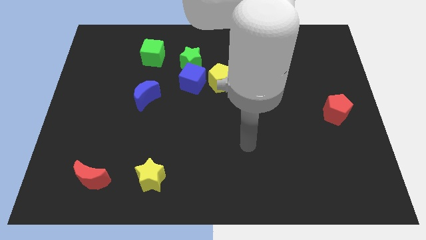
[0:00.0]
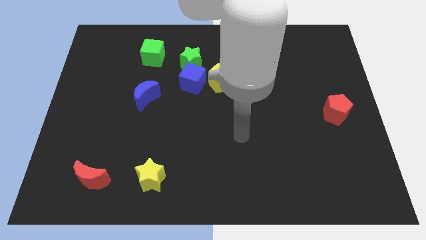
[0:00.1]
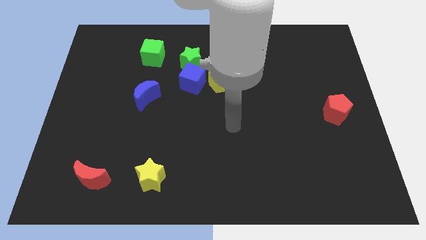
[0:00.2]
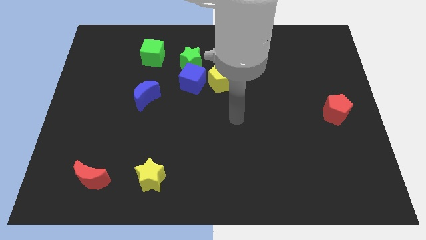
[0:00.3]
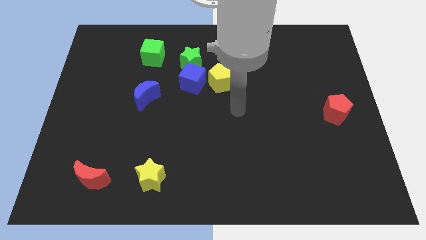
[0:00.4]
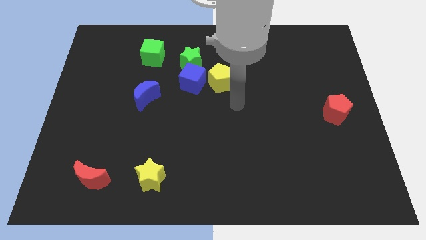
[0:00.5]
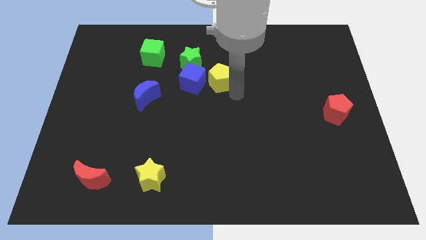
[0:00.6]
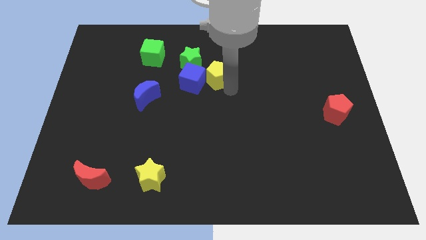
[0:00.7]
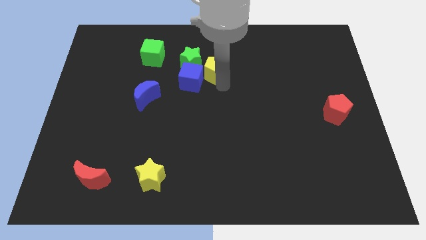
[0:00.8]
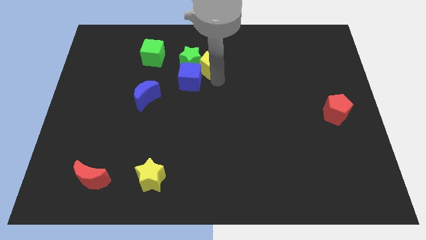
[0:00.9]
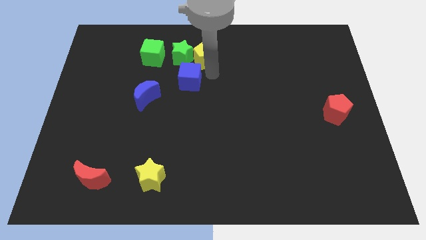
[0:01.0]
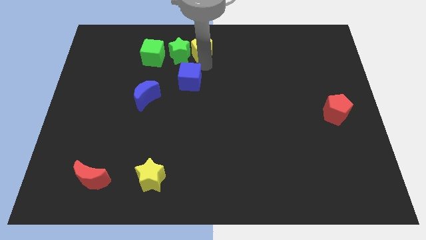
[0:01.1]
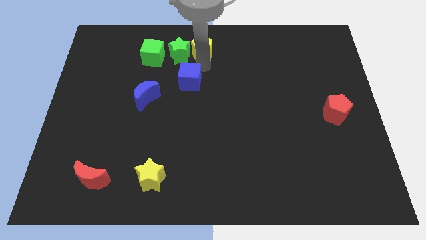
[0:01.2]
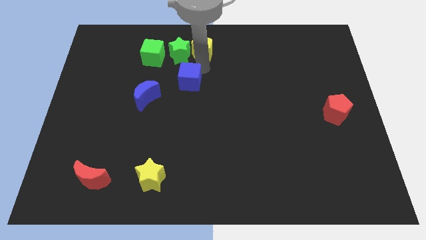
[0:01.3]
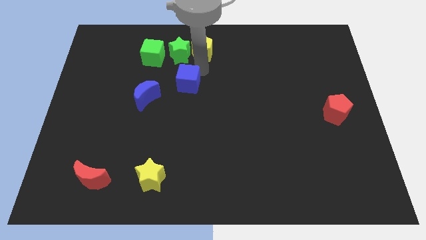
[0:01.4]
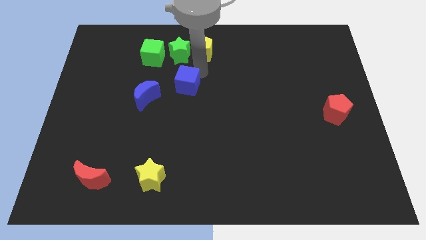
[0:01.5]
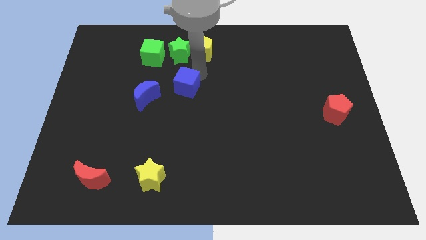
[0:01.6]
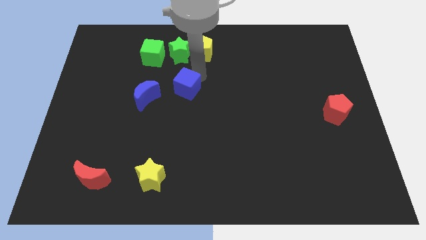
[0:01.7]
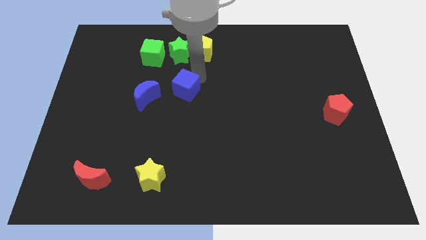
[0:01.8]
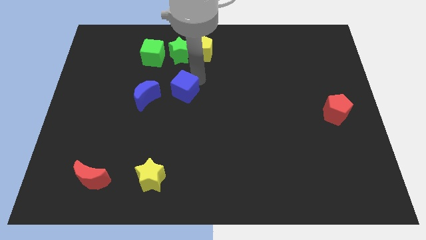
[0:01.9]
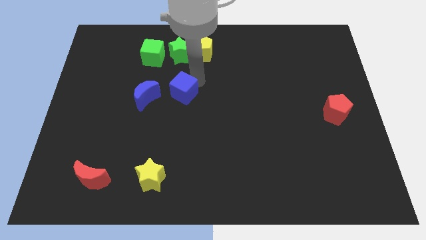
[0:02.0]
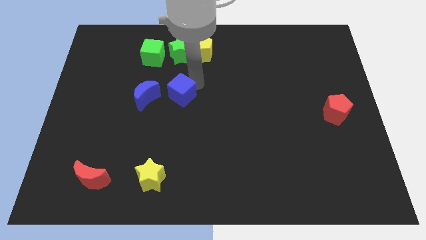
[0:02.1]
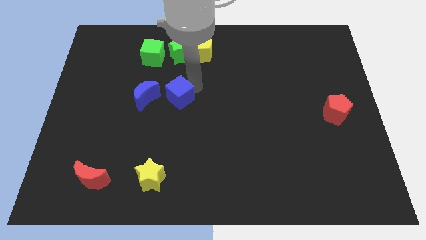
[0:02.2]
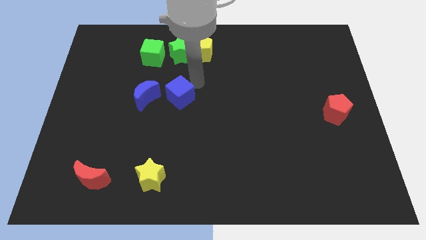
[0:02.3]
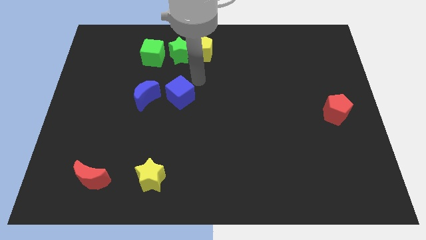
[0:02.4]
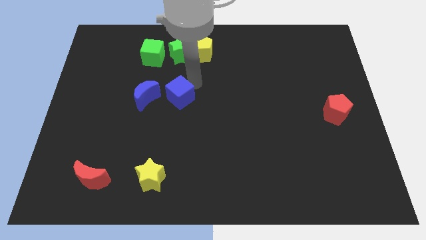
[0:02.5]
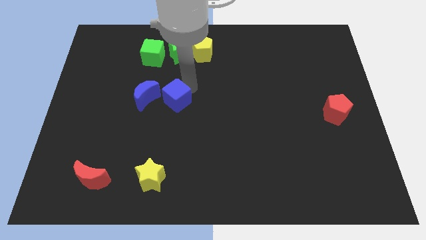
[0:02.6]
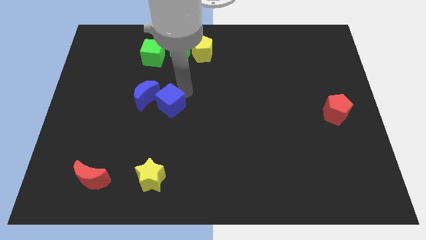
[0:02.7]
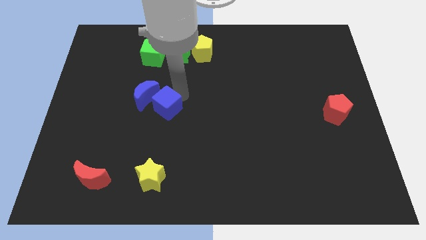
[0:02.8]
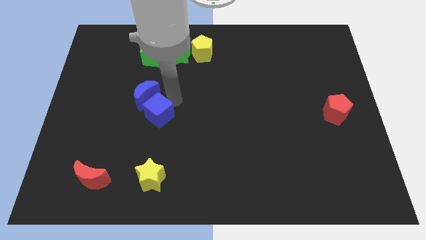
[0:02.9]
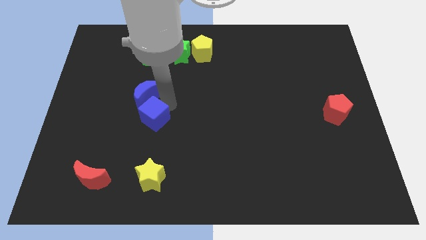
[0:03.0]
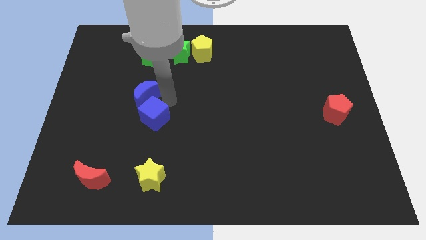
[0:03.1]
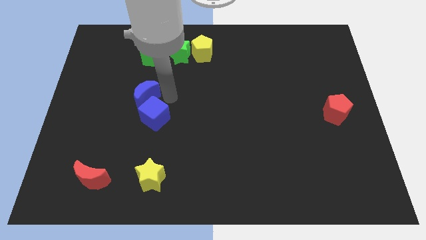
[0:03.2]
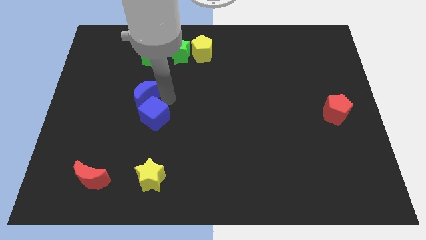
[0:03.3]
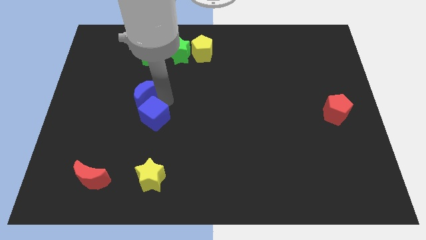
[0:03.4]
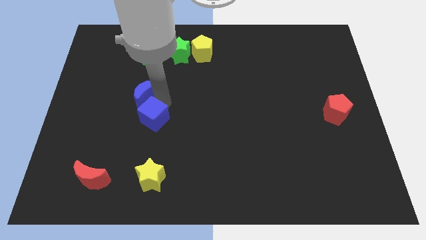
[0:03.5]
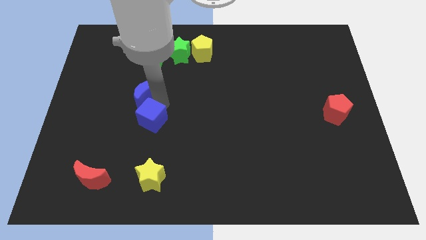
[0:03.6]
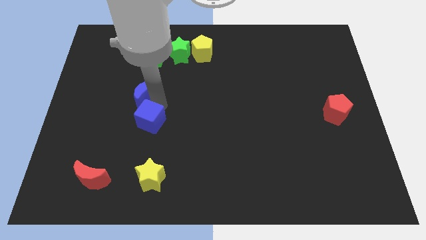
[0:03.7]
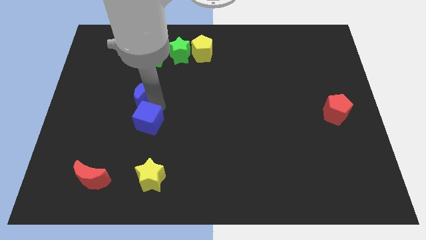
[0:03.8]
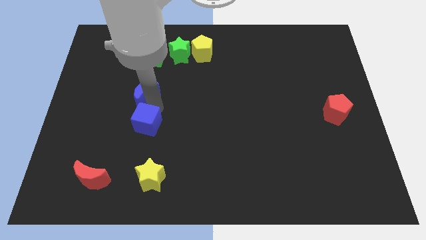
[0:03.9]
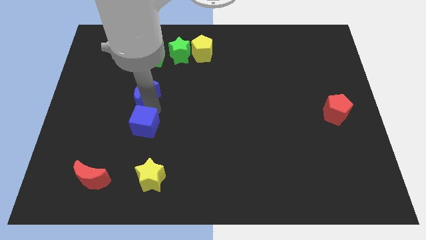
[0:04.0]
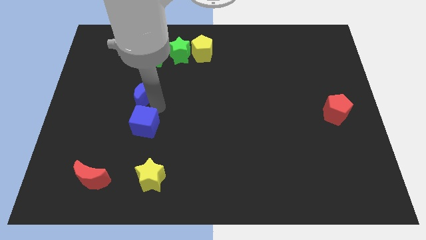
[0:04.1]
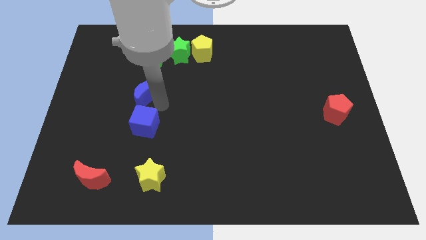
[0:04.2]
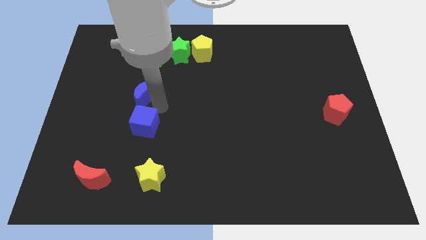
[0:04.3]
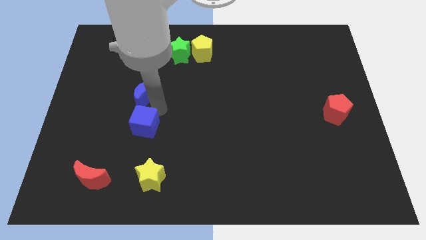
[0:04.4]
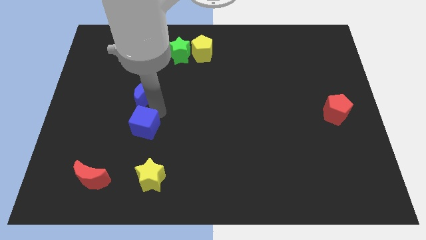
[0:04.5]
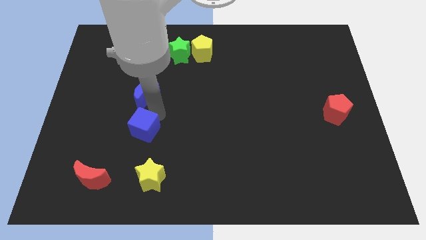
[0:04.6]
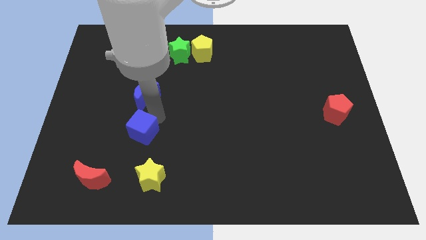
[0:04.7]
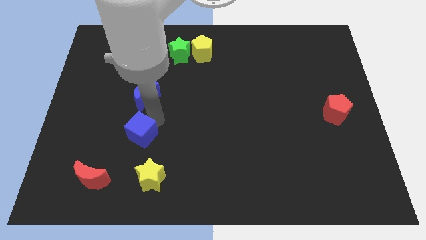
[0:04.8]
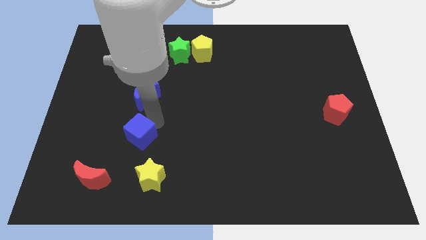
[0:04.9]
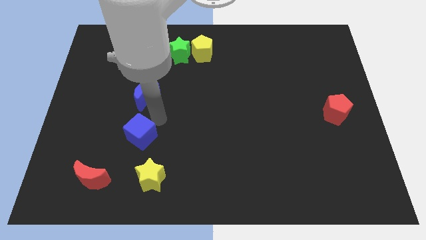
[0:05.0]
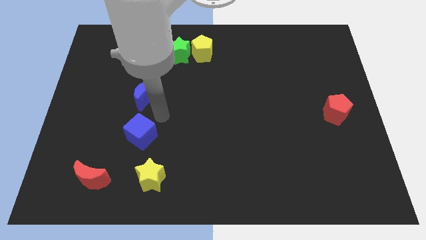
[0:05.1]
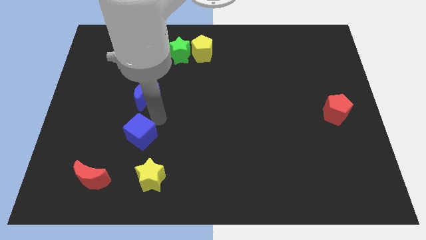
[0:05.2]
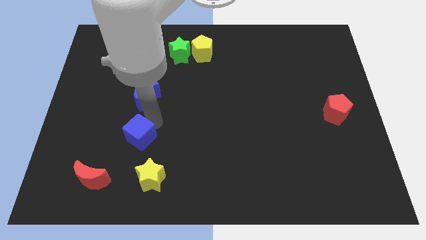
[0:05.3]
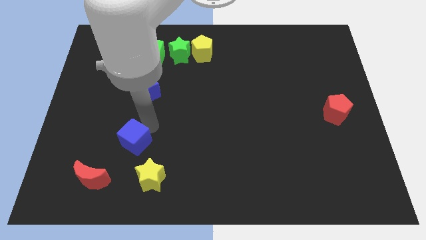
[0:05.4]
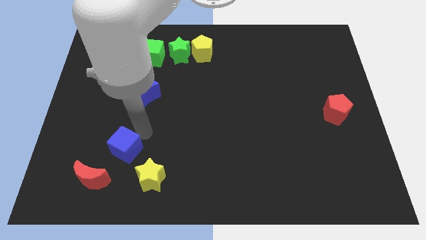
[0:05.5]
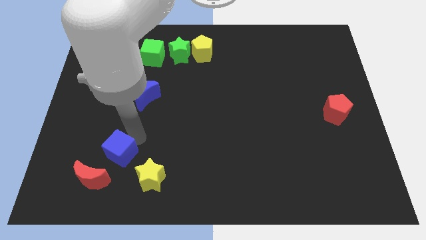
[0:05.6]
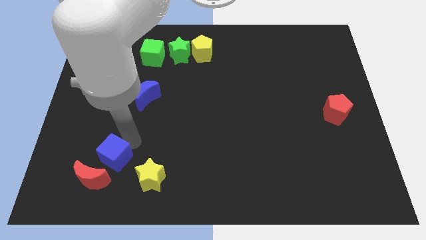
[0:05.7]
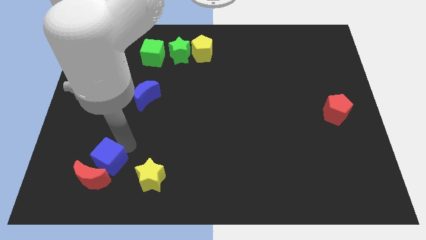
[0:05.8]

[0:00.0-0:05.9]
push the blue cube next to the red moon
